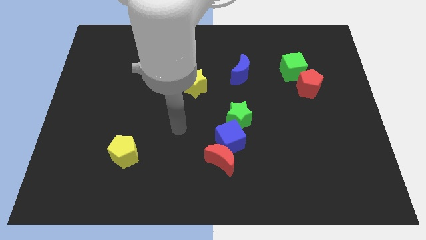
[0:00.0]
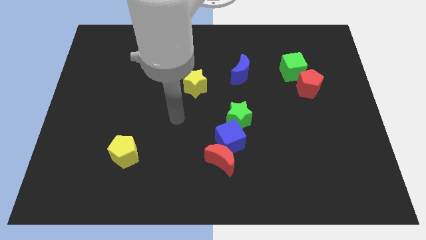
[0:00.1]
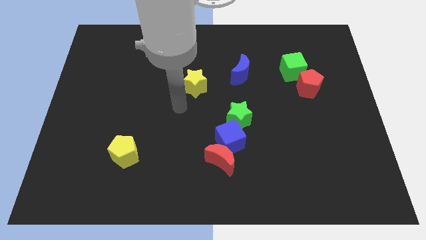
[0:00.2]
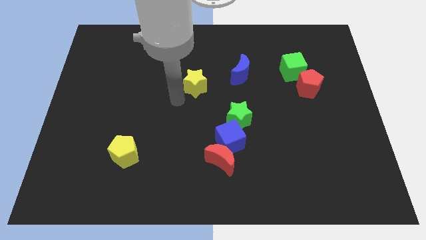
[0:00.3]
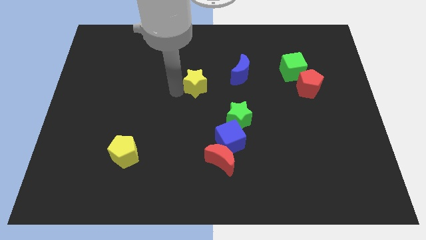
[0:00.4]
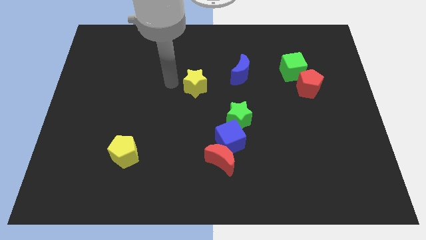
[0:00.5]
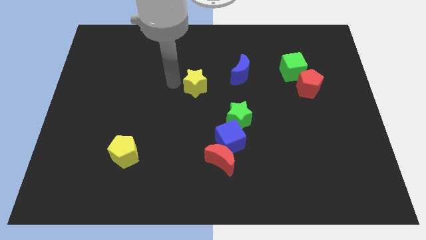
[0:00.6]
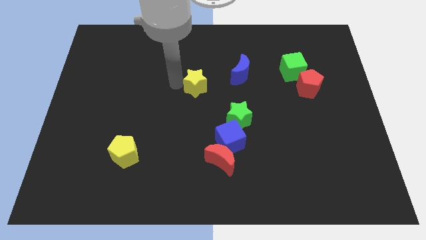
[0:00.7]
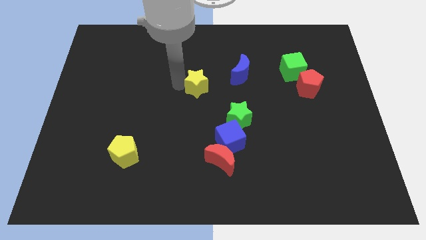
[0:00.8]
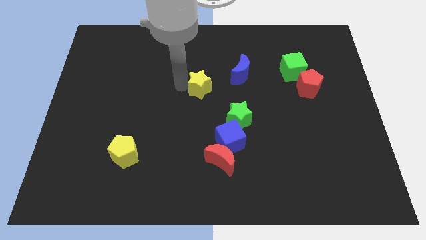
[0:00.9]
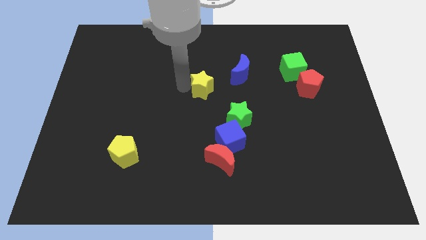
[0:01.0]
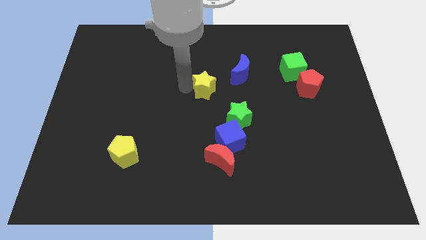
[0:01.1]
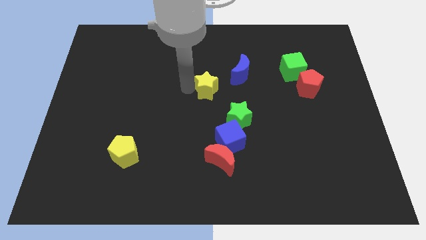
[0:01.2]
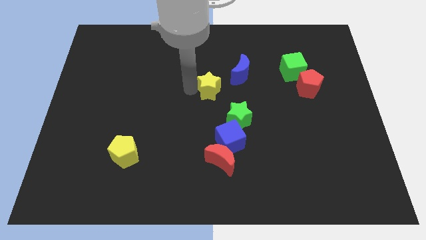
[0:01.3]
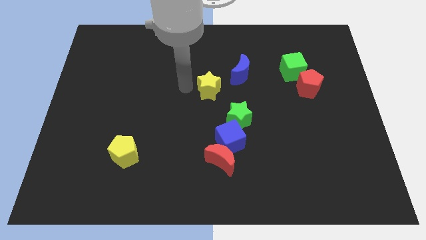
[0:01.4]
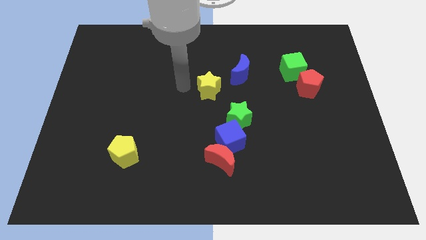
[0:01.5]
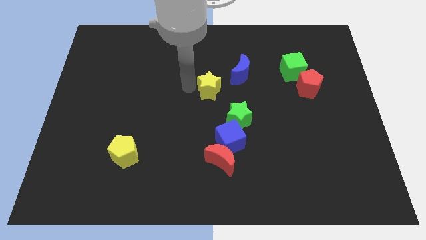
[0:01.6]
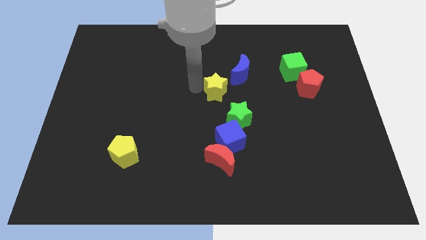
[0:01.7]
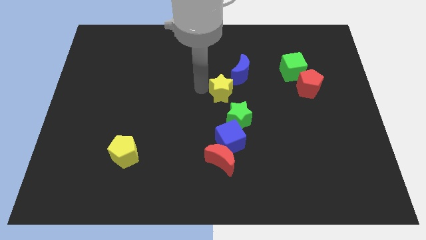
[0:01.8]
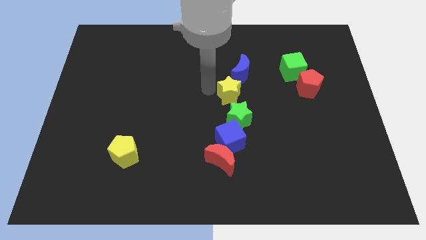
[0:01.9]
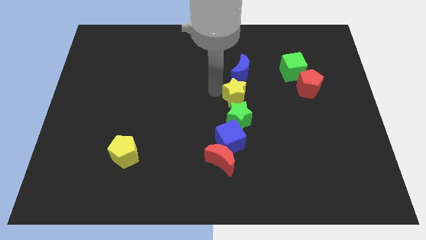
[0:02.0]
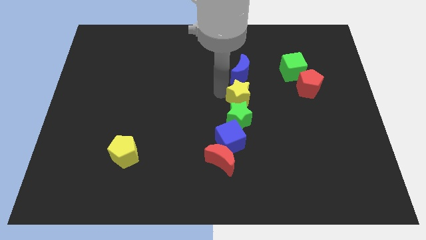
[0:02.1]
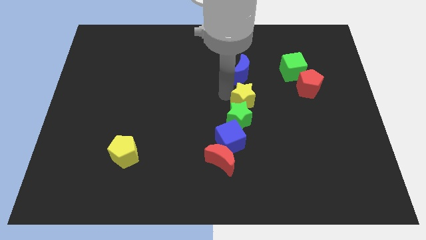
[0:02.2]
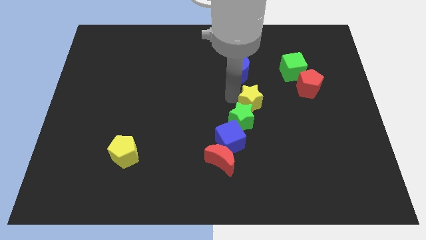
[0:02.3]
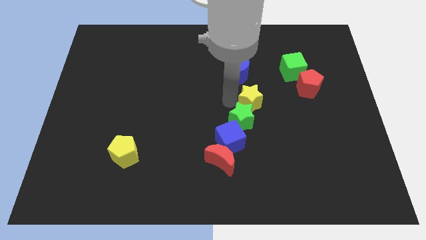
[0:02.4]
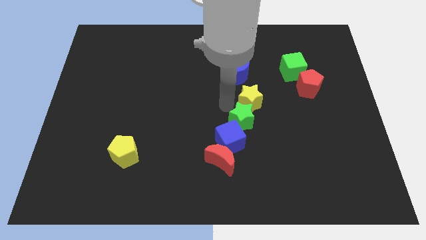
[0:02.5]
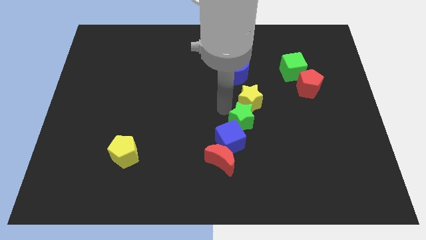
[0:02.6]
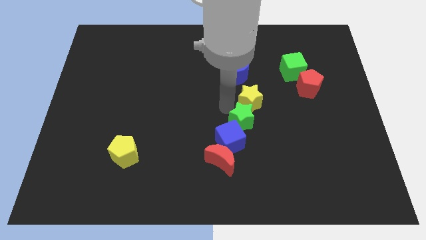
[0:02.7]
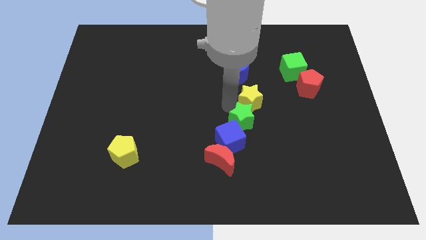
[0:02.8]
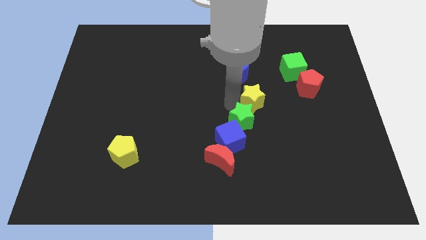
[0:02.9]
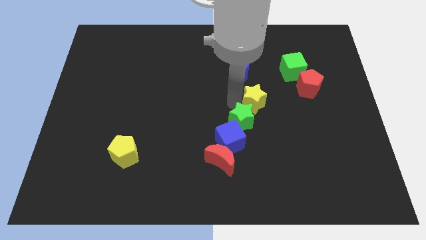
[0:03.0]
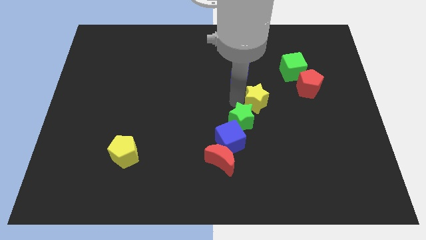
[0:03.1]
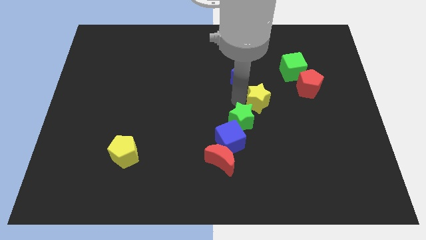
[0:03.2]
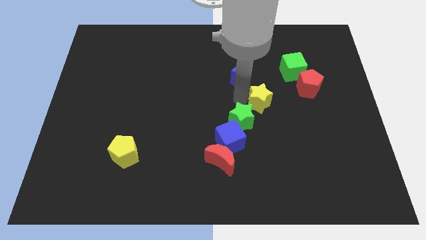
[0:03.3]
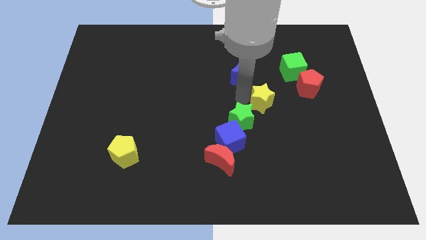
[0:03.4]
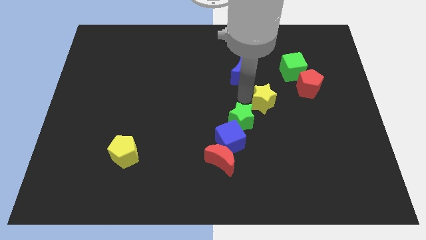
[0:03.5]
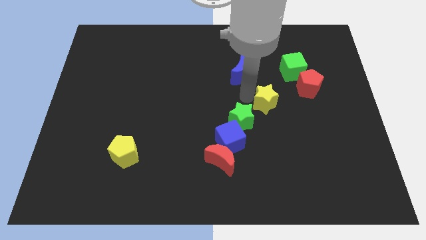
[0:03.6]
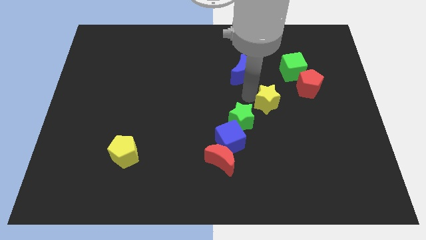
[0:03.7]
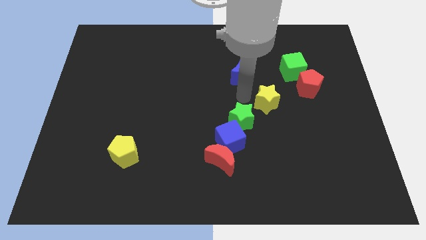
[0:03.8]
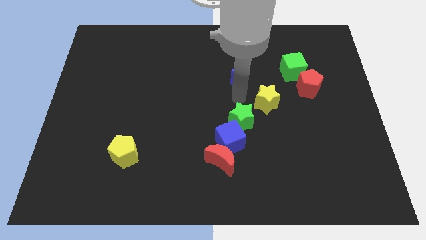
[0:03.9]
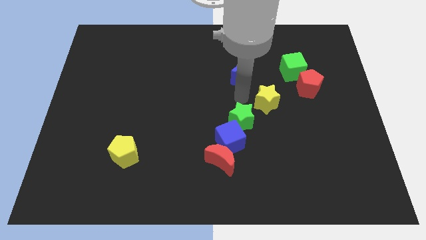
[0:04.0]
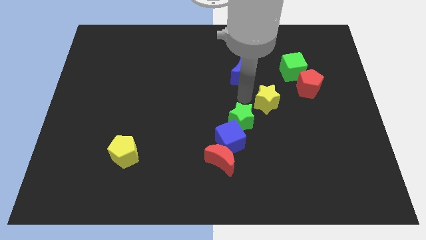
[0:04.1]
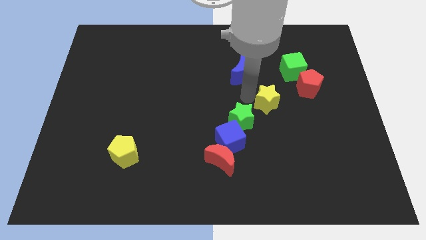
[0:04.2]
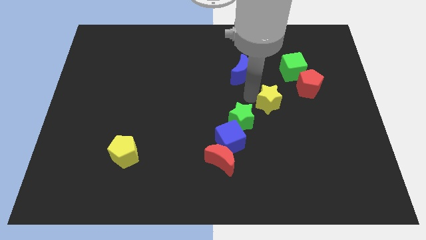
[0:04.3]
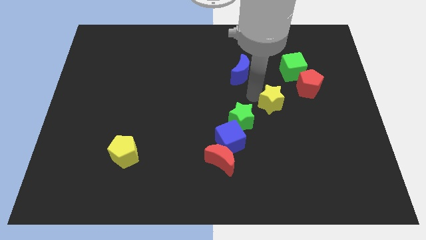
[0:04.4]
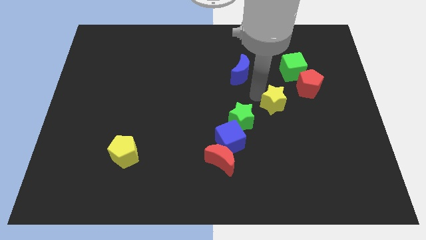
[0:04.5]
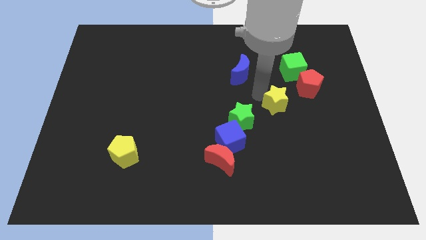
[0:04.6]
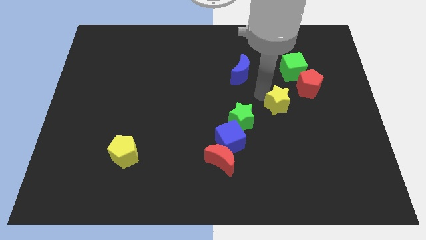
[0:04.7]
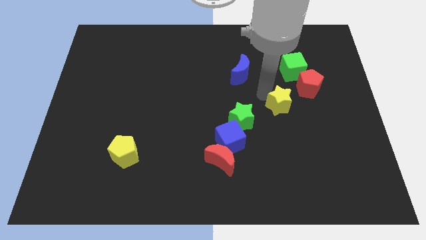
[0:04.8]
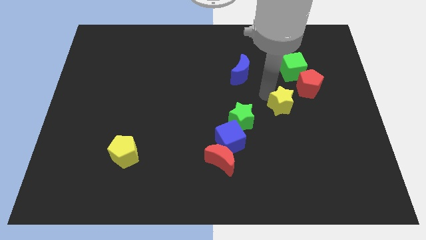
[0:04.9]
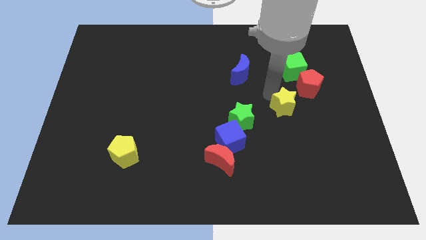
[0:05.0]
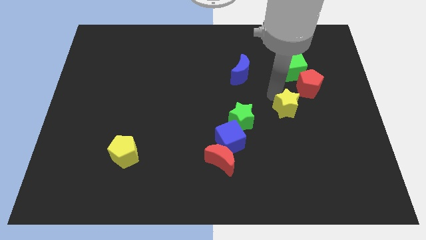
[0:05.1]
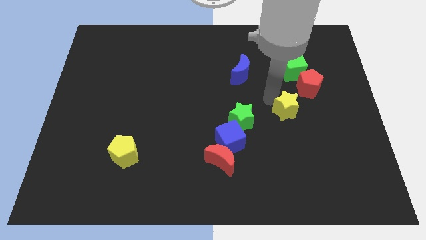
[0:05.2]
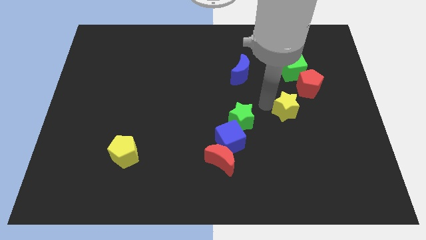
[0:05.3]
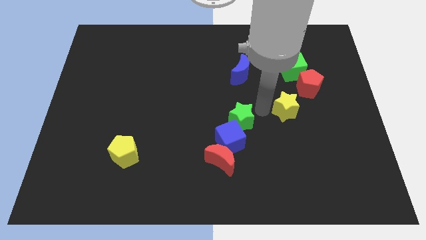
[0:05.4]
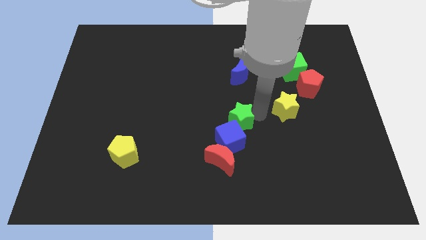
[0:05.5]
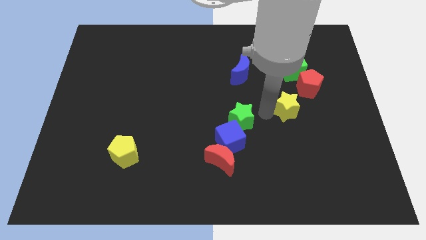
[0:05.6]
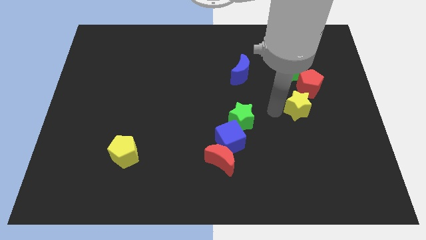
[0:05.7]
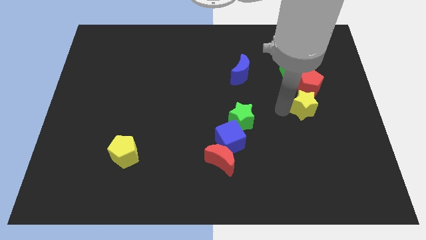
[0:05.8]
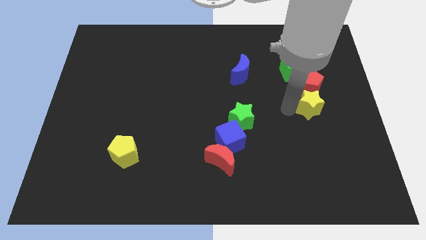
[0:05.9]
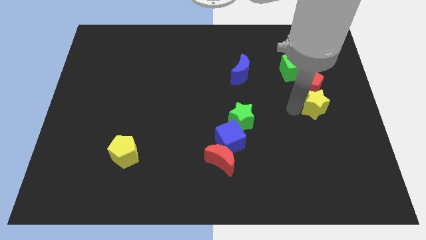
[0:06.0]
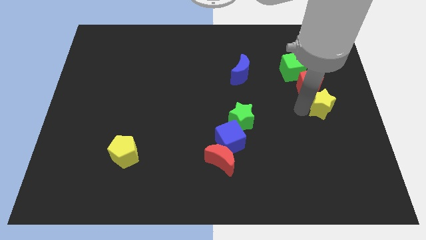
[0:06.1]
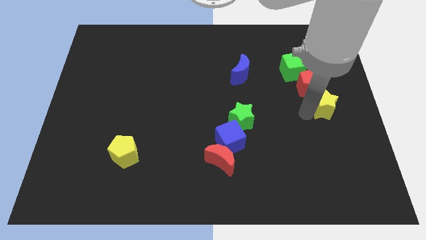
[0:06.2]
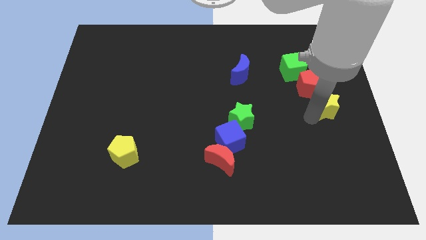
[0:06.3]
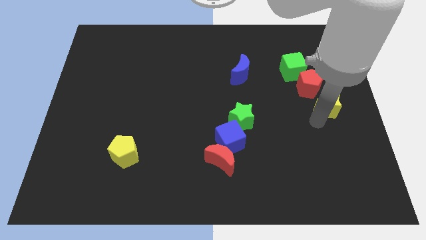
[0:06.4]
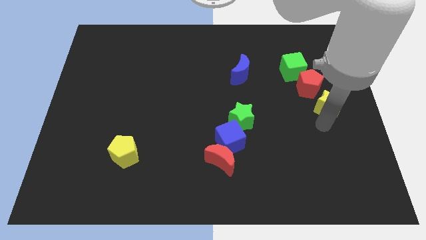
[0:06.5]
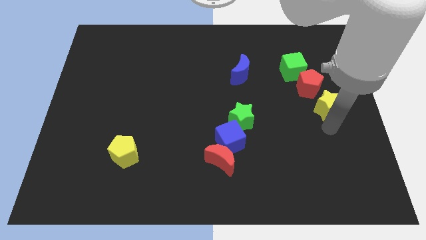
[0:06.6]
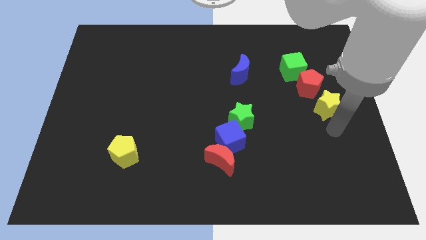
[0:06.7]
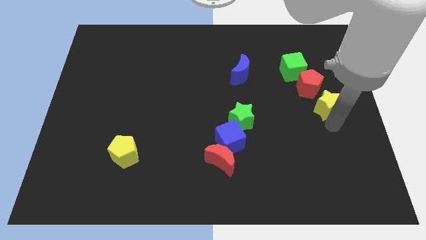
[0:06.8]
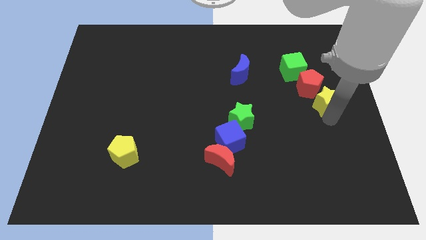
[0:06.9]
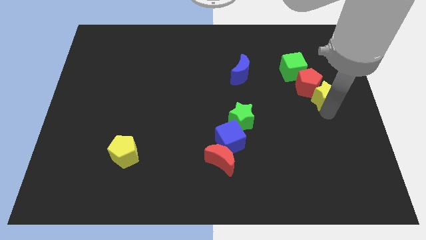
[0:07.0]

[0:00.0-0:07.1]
move the yellow star to the bottom right of the green cube
